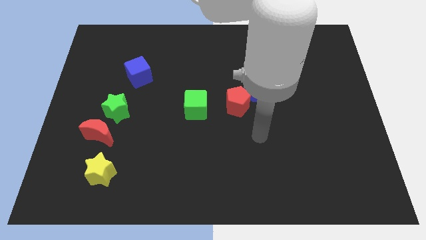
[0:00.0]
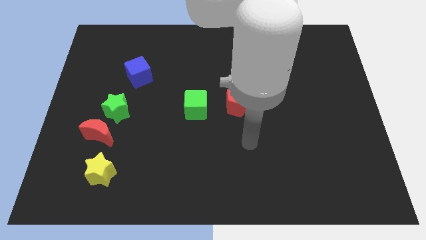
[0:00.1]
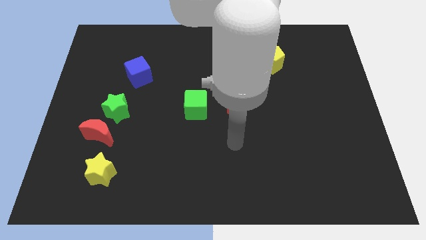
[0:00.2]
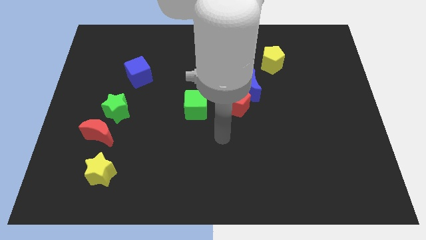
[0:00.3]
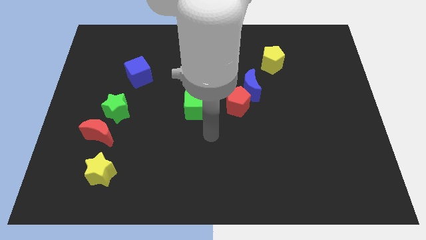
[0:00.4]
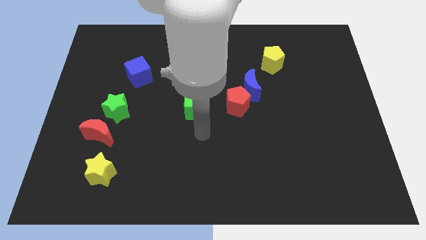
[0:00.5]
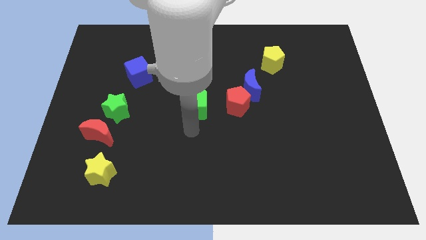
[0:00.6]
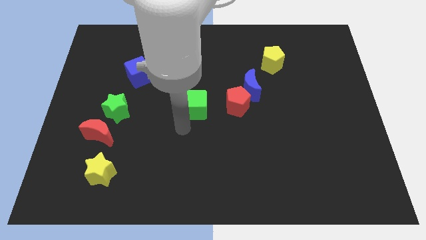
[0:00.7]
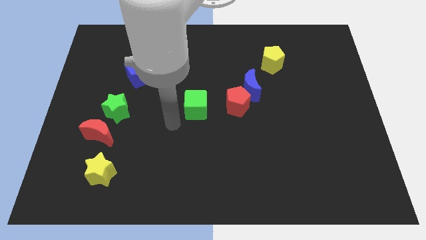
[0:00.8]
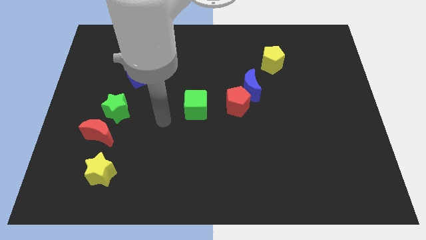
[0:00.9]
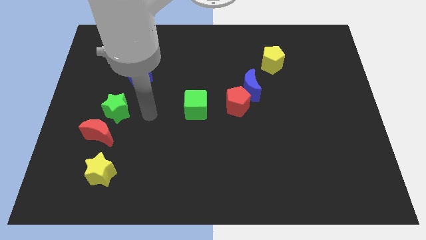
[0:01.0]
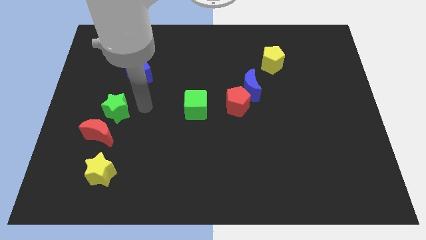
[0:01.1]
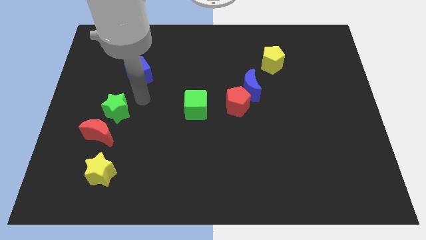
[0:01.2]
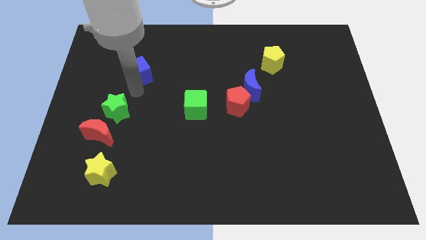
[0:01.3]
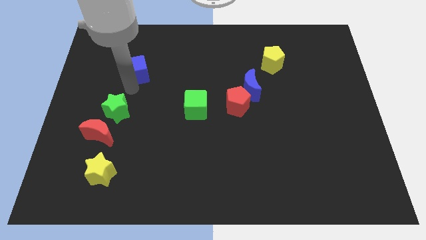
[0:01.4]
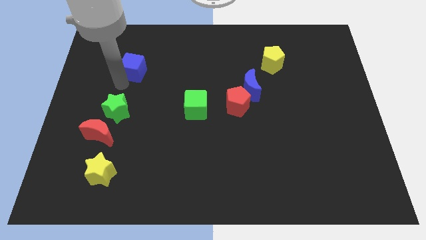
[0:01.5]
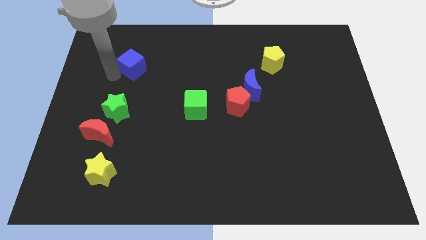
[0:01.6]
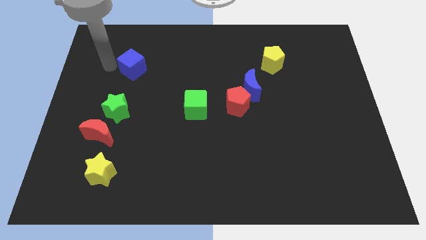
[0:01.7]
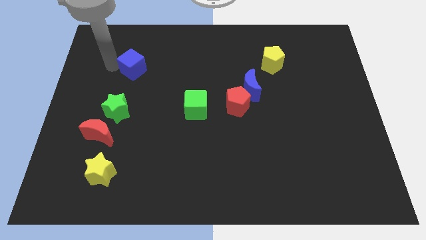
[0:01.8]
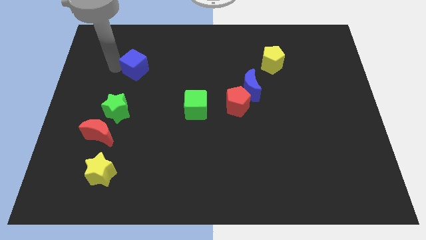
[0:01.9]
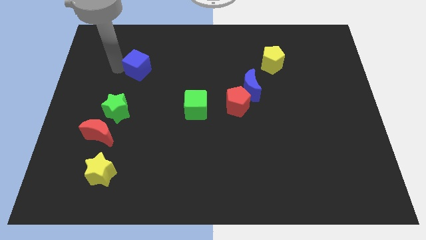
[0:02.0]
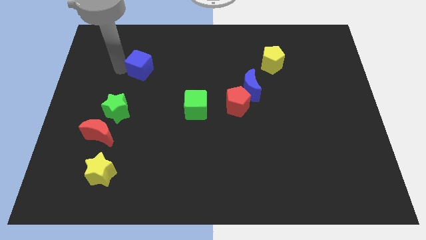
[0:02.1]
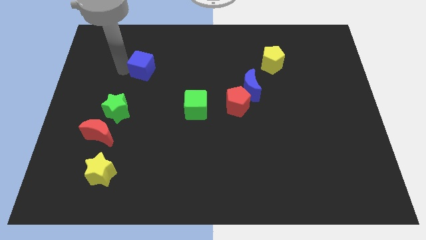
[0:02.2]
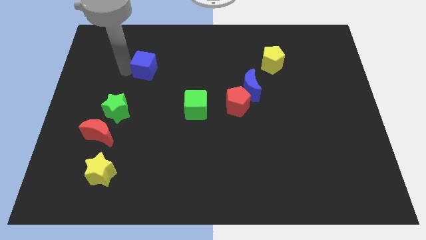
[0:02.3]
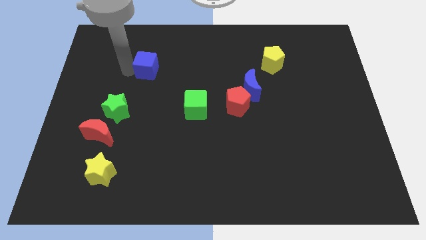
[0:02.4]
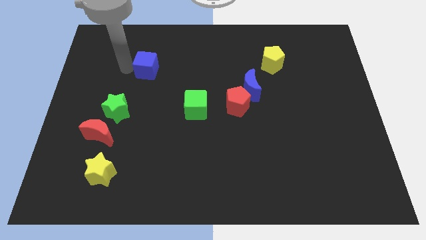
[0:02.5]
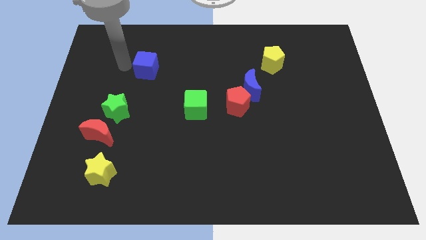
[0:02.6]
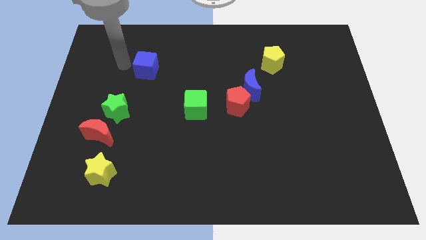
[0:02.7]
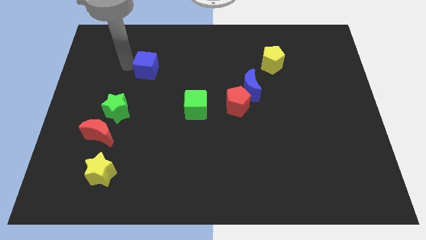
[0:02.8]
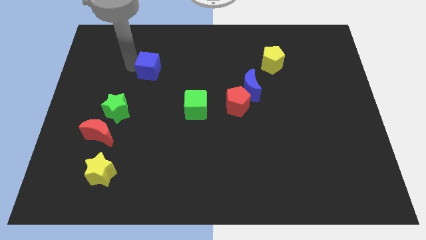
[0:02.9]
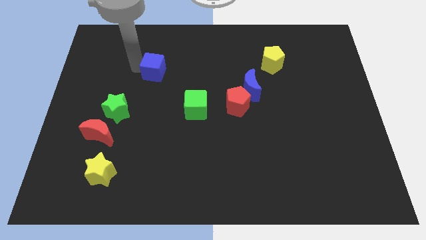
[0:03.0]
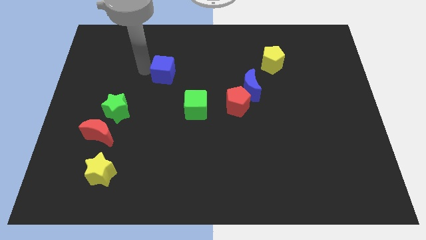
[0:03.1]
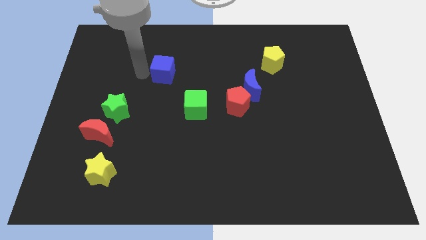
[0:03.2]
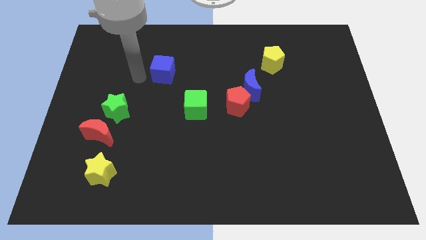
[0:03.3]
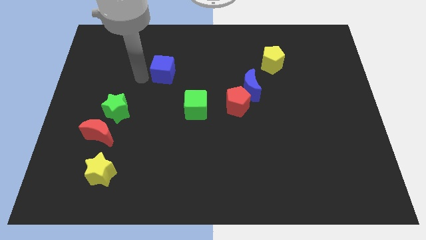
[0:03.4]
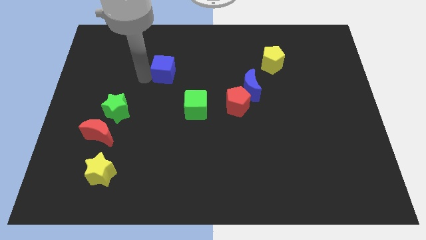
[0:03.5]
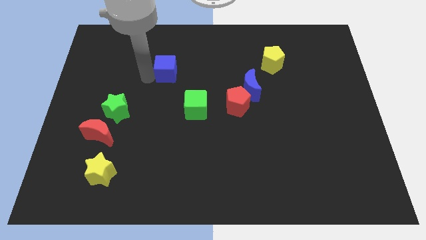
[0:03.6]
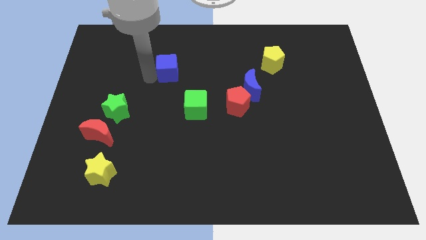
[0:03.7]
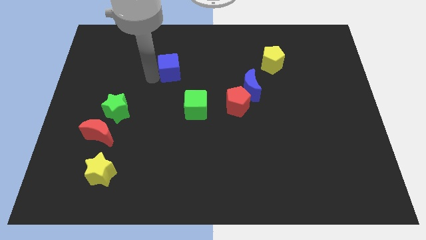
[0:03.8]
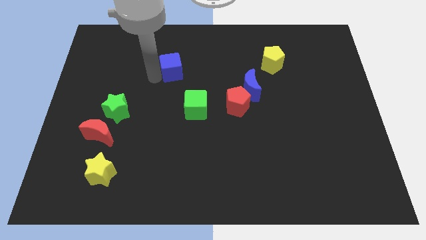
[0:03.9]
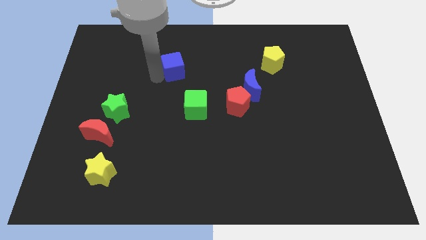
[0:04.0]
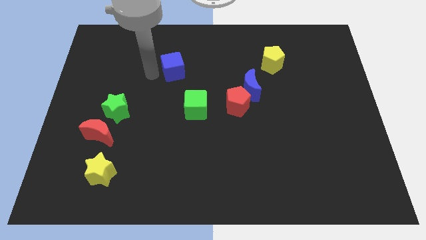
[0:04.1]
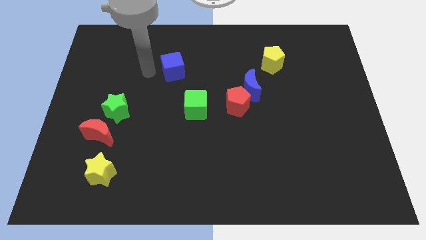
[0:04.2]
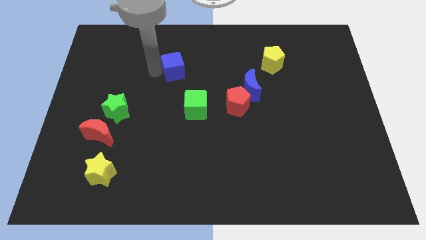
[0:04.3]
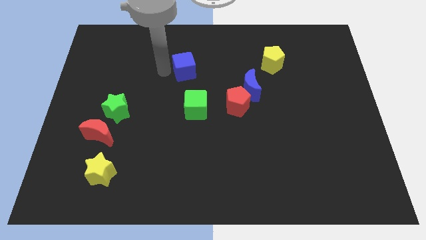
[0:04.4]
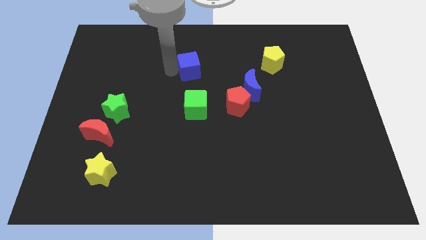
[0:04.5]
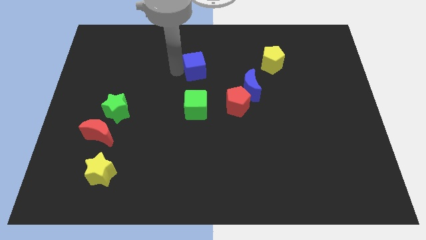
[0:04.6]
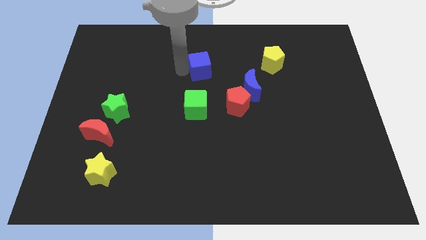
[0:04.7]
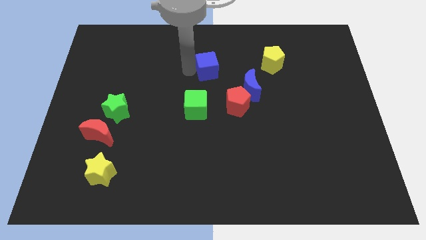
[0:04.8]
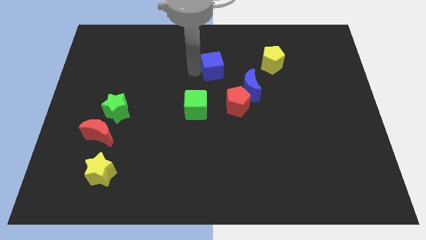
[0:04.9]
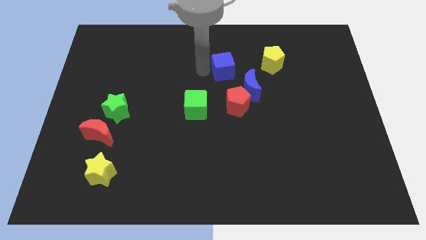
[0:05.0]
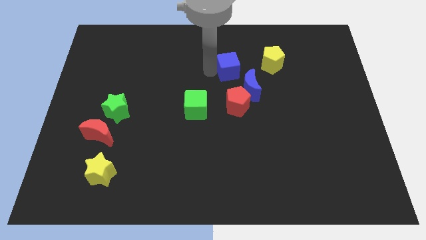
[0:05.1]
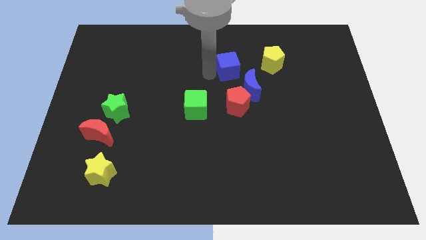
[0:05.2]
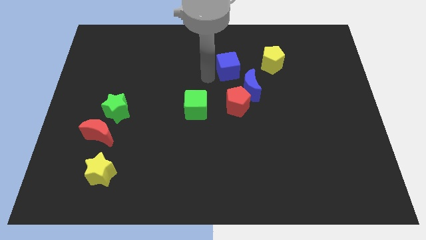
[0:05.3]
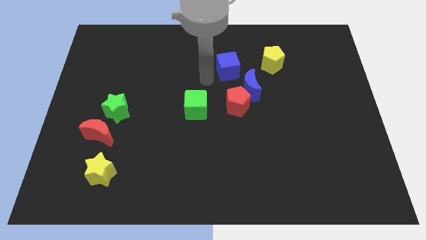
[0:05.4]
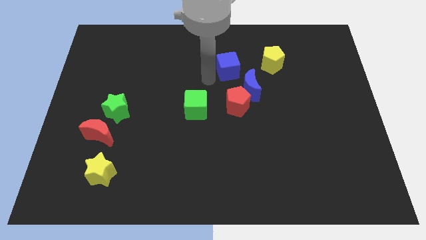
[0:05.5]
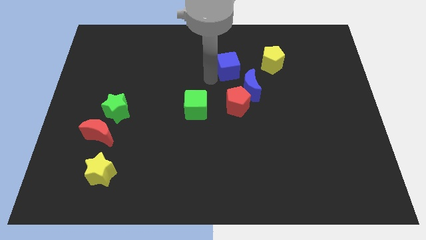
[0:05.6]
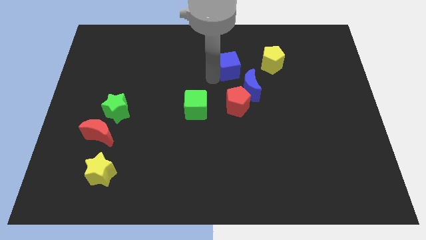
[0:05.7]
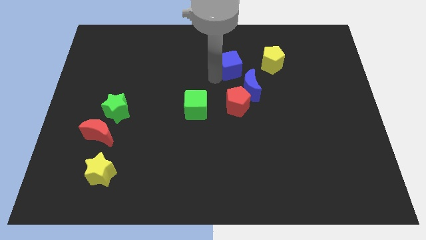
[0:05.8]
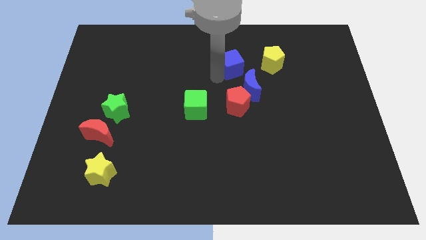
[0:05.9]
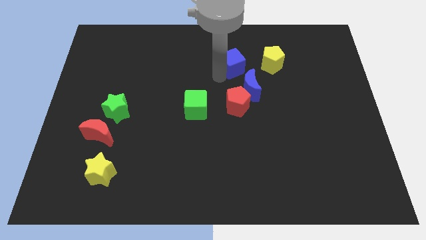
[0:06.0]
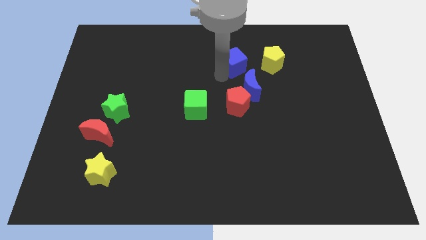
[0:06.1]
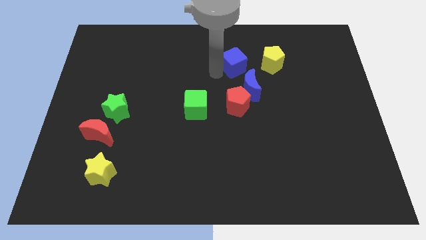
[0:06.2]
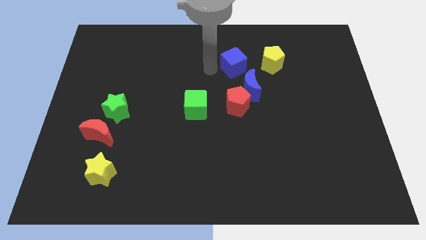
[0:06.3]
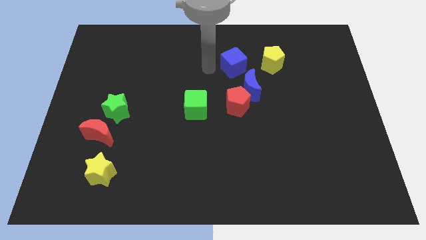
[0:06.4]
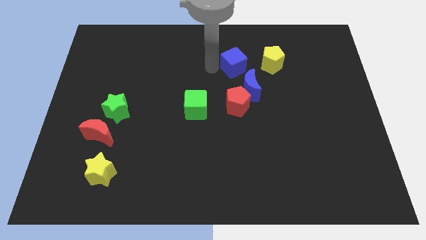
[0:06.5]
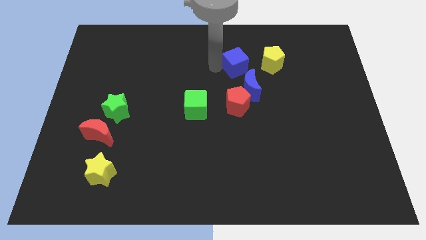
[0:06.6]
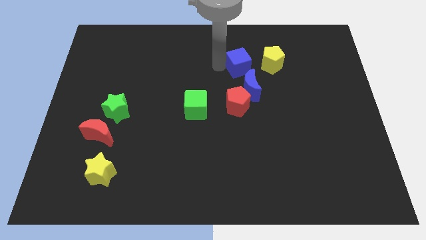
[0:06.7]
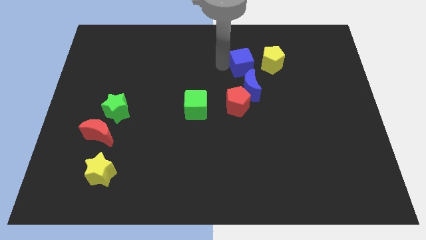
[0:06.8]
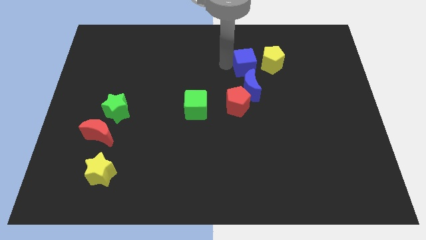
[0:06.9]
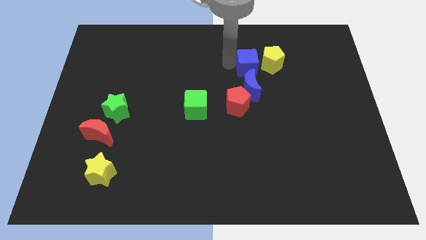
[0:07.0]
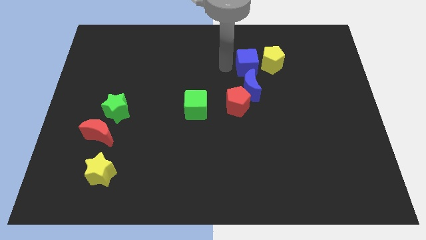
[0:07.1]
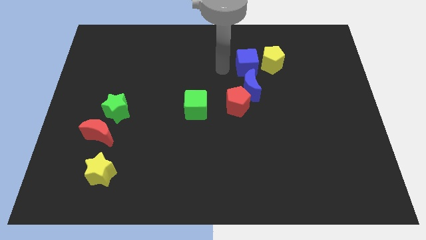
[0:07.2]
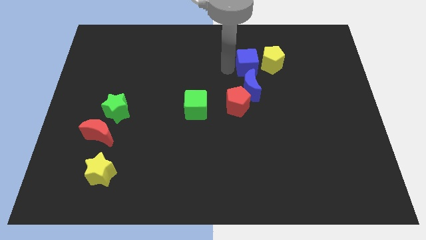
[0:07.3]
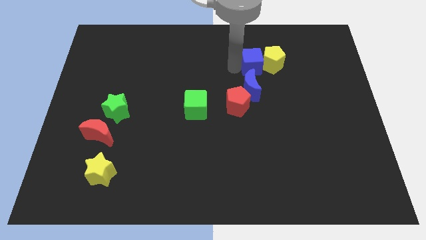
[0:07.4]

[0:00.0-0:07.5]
push the blue cube towards the yellow pentagon
